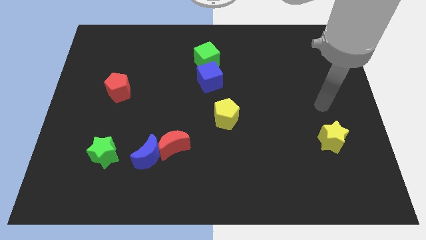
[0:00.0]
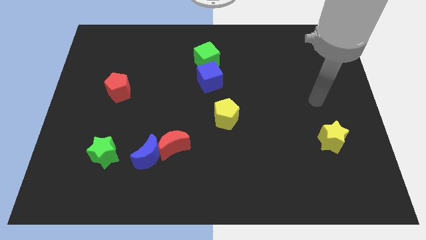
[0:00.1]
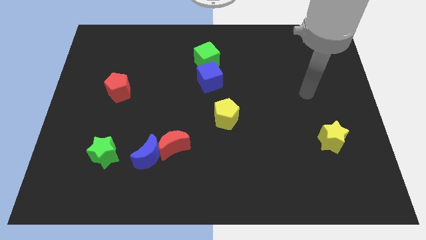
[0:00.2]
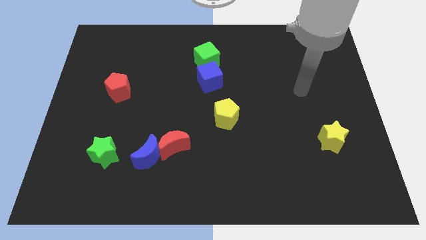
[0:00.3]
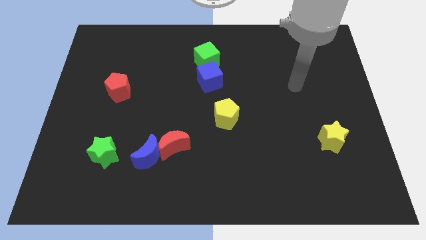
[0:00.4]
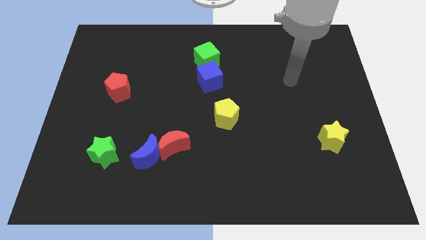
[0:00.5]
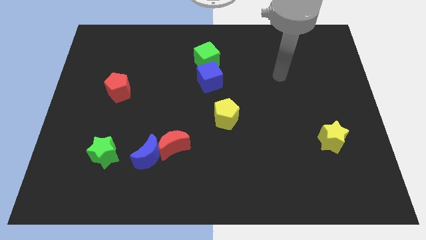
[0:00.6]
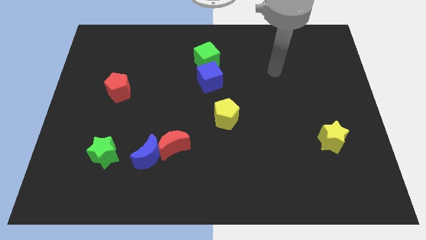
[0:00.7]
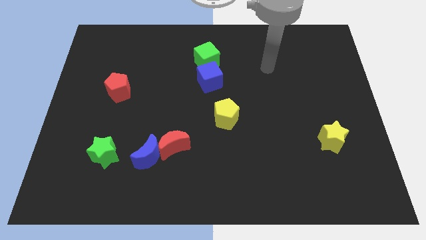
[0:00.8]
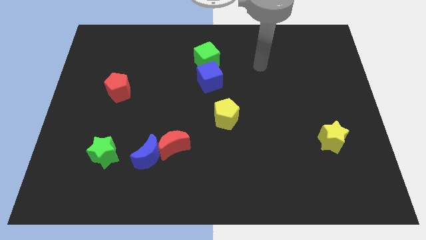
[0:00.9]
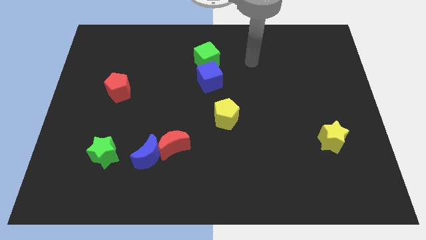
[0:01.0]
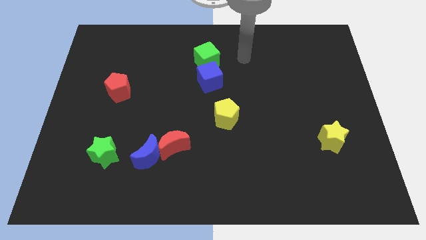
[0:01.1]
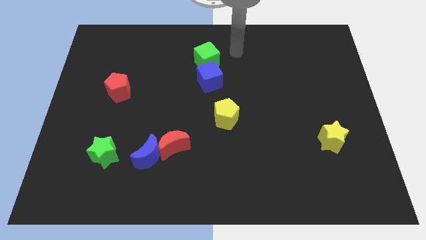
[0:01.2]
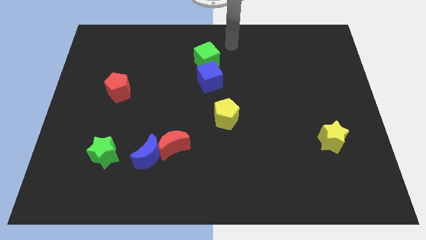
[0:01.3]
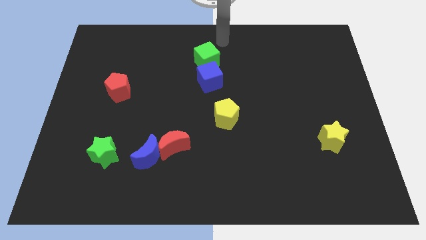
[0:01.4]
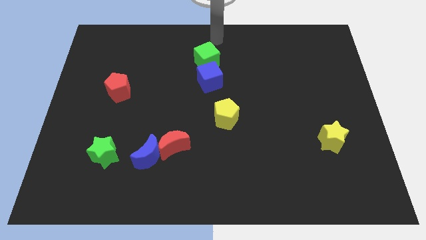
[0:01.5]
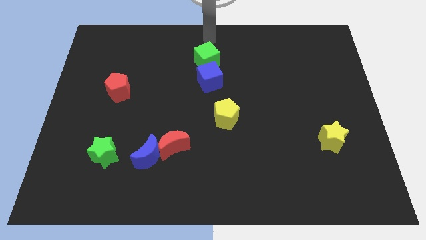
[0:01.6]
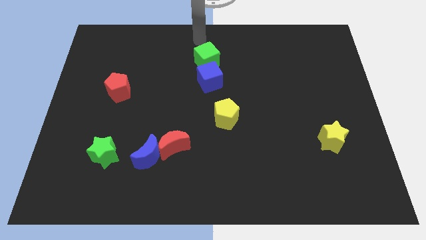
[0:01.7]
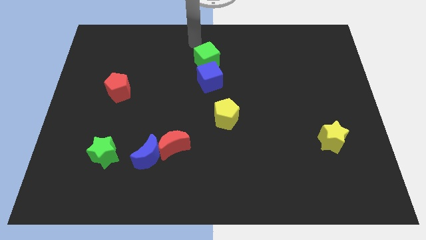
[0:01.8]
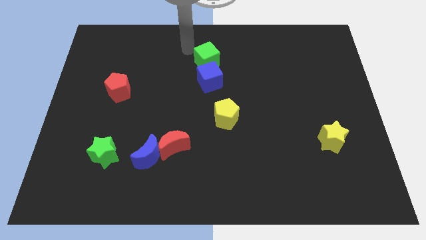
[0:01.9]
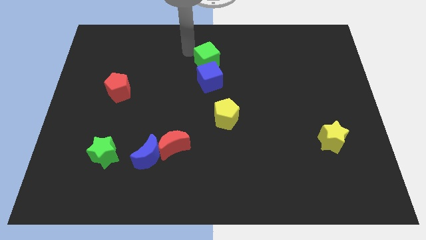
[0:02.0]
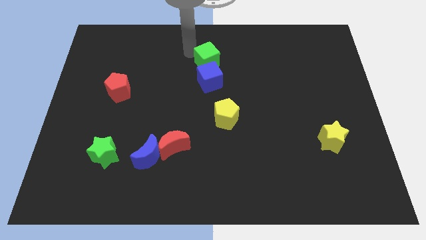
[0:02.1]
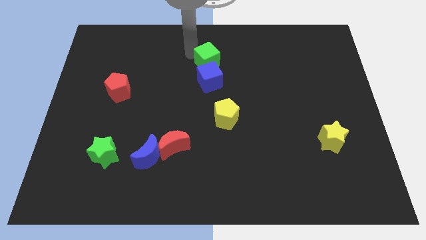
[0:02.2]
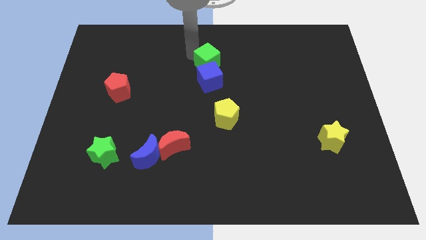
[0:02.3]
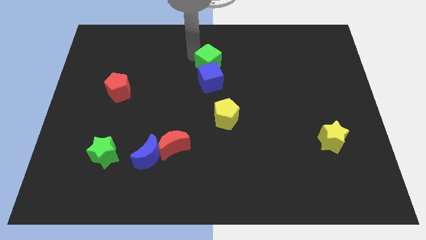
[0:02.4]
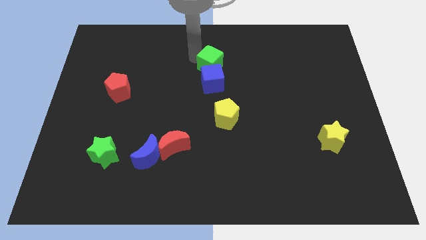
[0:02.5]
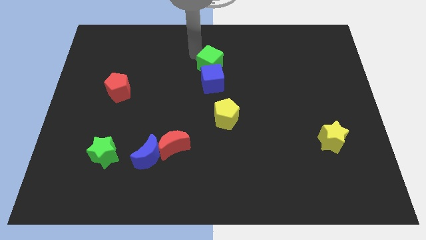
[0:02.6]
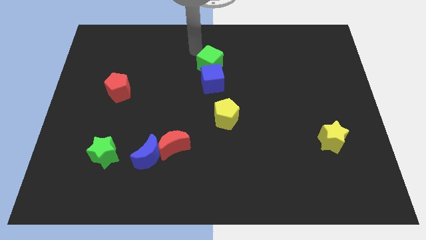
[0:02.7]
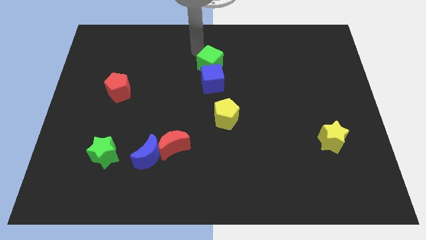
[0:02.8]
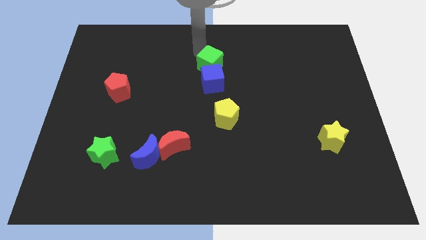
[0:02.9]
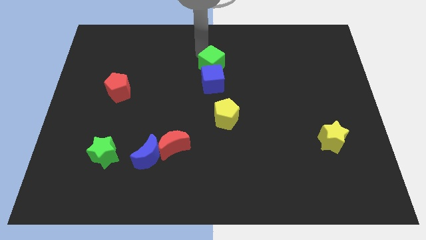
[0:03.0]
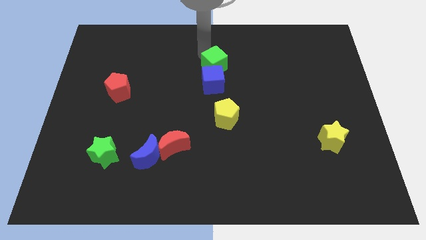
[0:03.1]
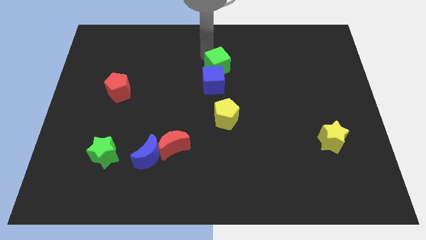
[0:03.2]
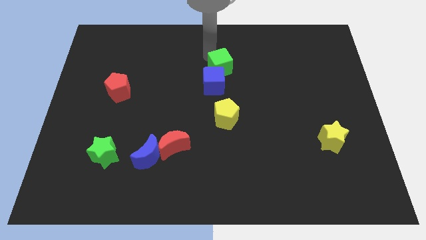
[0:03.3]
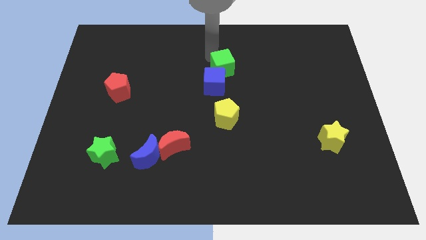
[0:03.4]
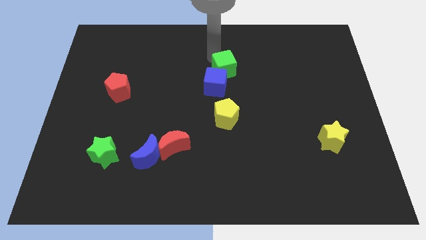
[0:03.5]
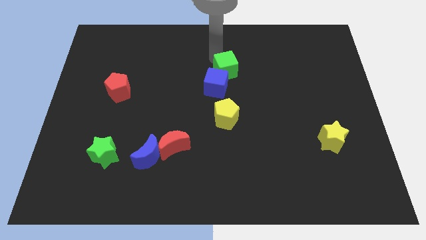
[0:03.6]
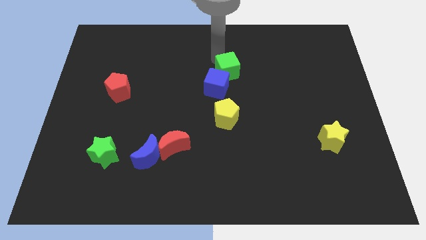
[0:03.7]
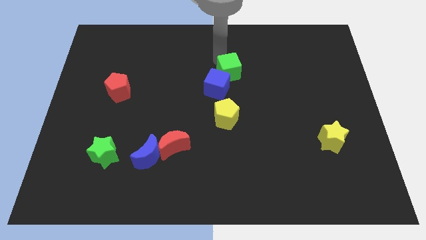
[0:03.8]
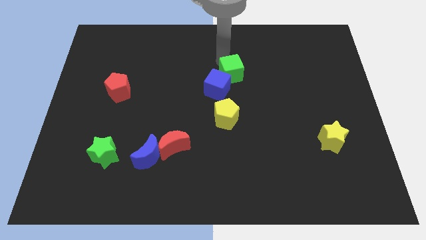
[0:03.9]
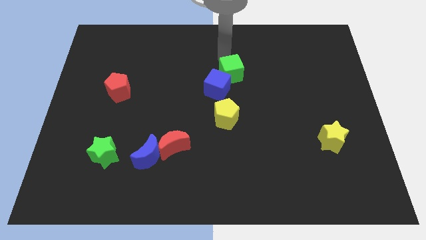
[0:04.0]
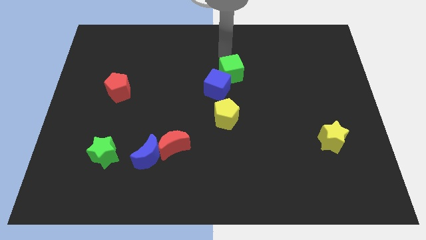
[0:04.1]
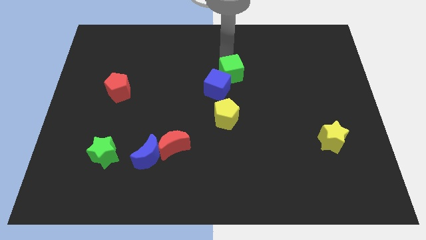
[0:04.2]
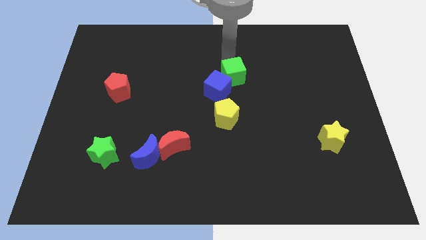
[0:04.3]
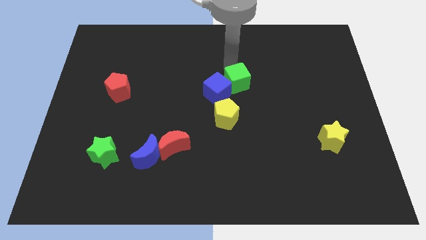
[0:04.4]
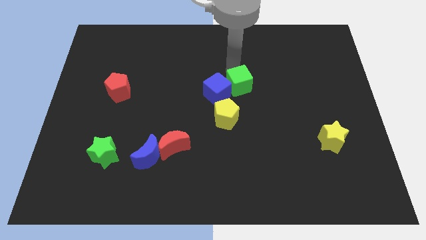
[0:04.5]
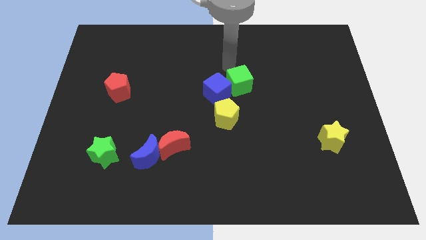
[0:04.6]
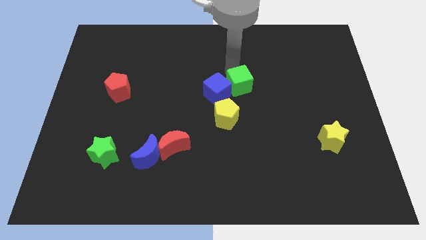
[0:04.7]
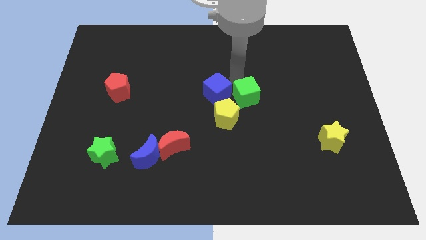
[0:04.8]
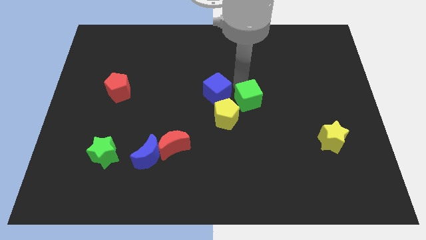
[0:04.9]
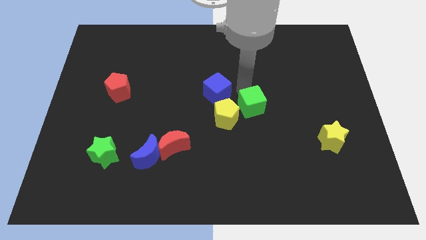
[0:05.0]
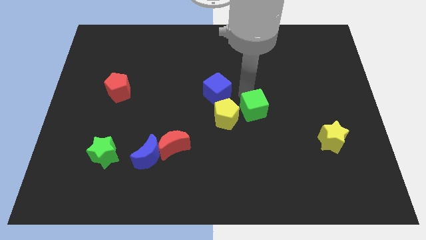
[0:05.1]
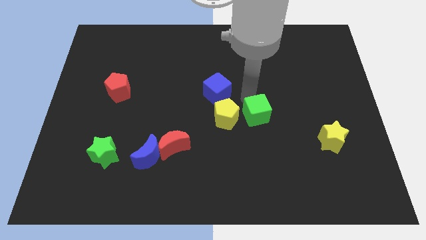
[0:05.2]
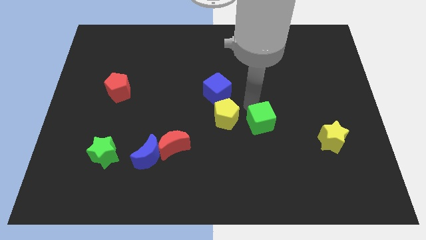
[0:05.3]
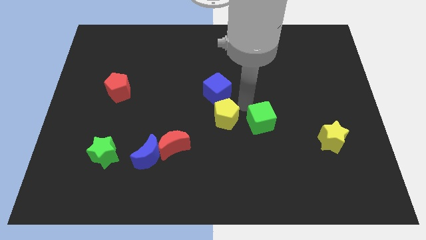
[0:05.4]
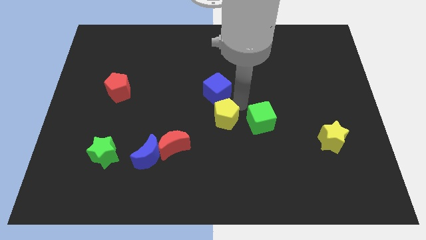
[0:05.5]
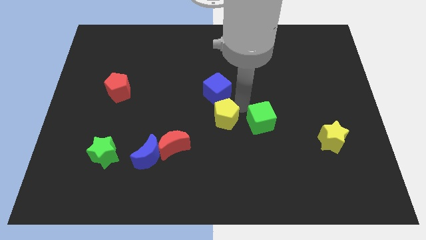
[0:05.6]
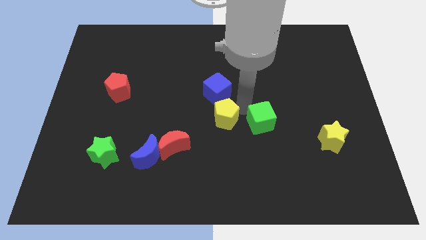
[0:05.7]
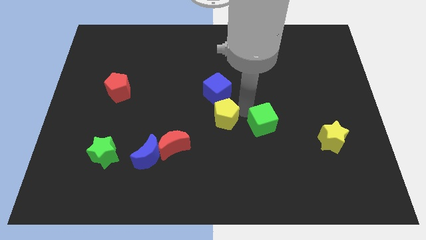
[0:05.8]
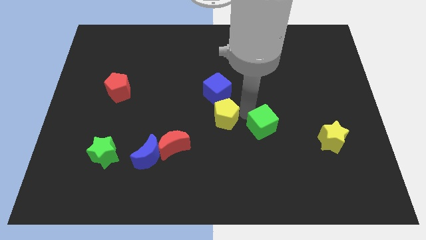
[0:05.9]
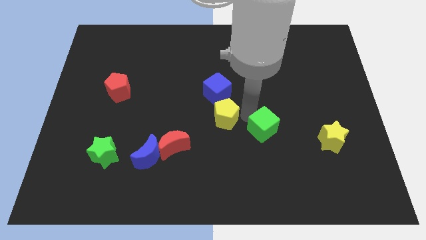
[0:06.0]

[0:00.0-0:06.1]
move the green cube to the left of the yellow star

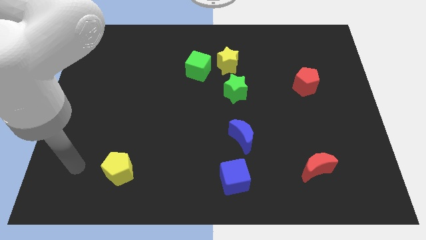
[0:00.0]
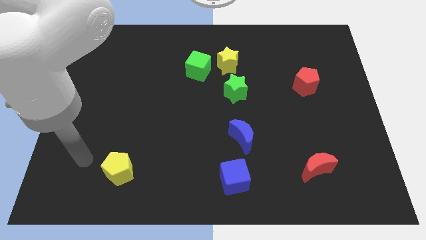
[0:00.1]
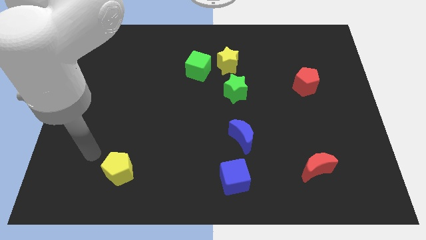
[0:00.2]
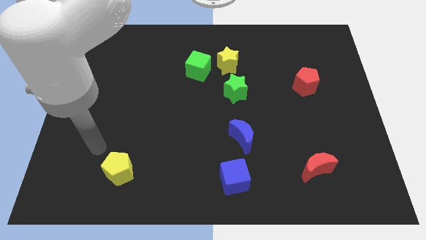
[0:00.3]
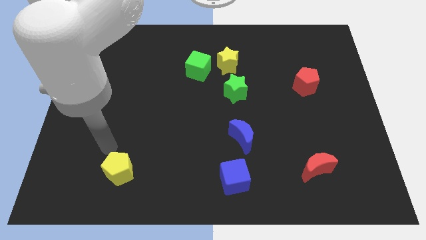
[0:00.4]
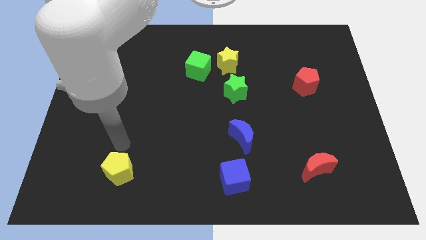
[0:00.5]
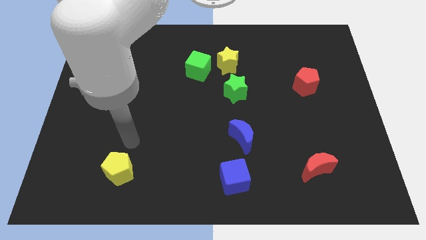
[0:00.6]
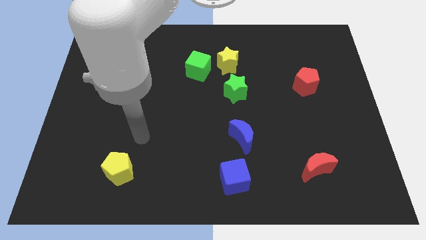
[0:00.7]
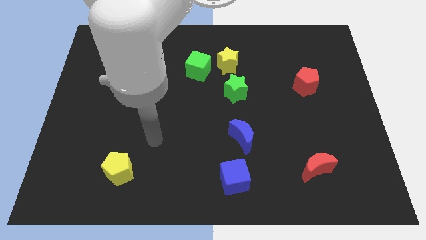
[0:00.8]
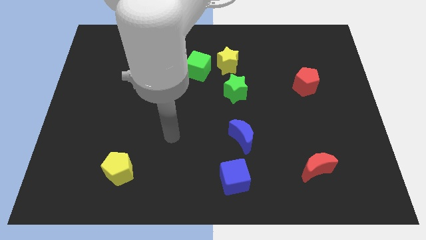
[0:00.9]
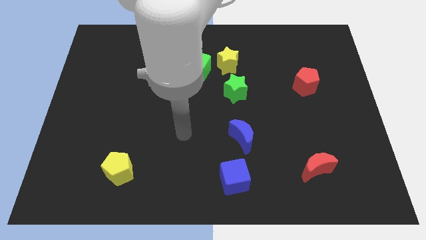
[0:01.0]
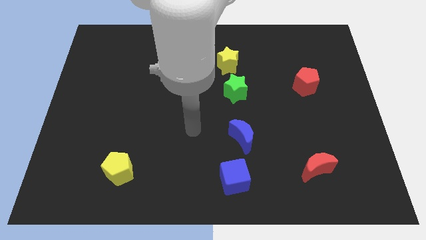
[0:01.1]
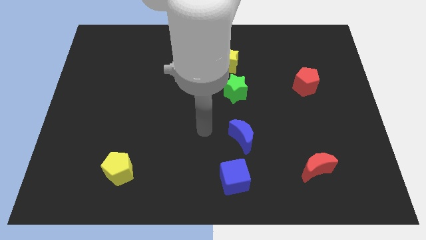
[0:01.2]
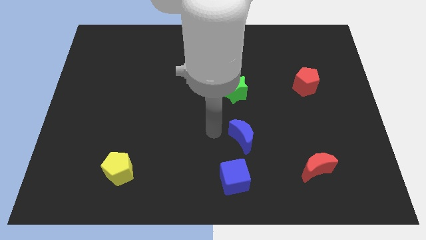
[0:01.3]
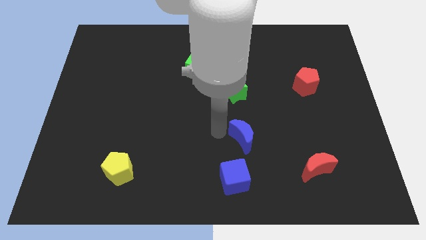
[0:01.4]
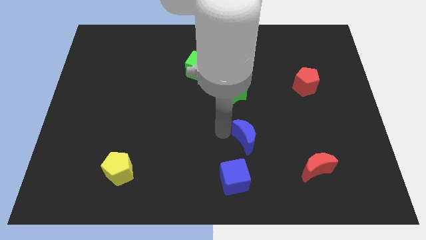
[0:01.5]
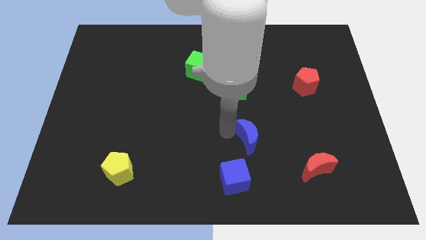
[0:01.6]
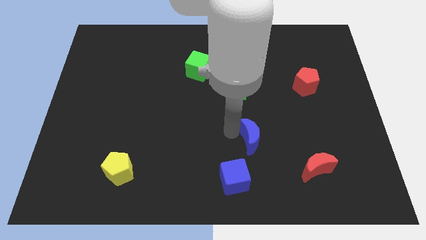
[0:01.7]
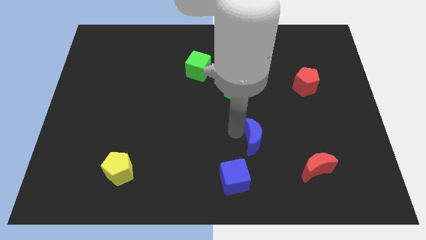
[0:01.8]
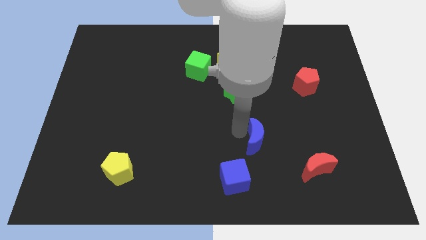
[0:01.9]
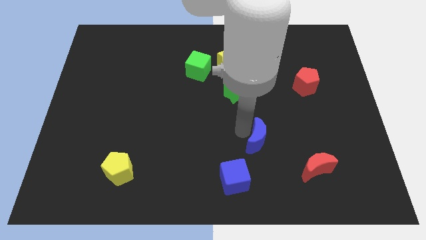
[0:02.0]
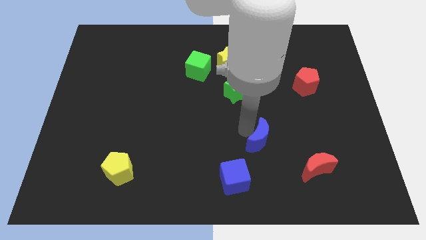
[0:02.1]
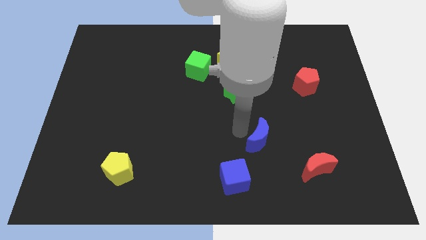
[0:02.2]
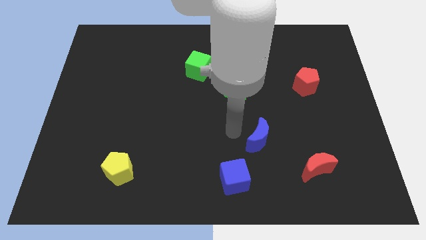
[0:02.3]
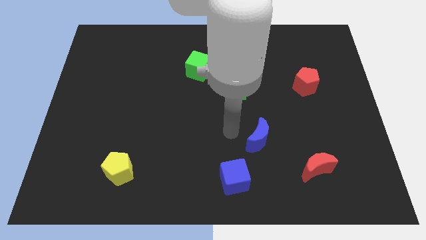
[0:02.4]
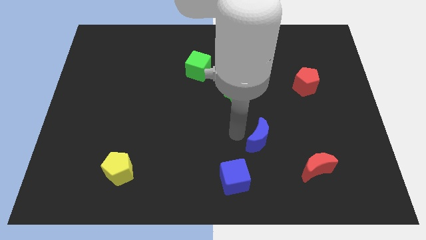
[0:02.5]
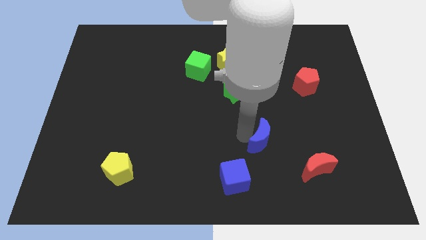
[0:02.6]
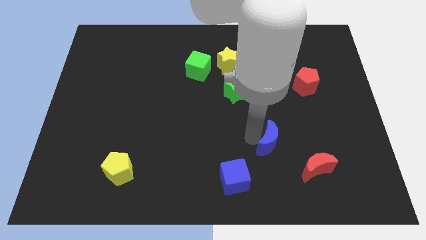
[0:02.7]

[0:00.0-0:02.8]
push the blue moon diagonally up and to the left of the red moon
